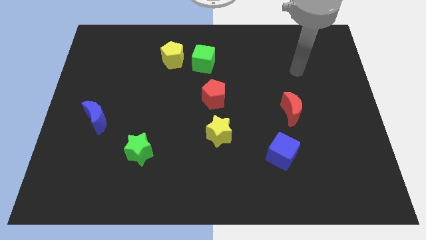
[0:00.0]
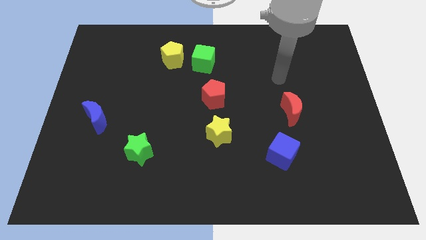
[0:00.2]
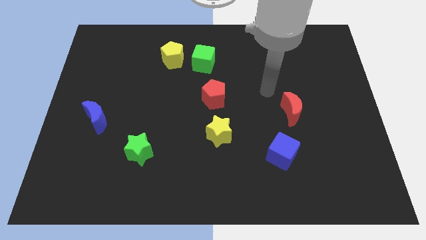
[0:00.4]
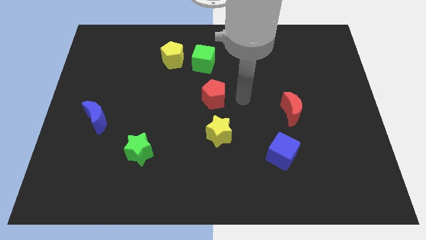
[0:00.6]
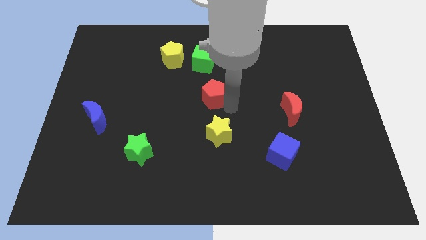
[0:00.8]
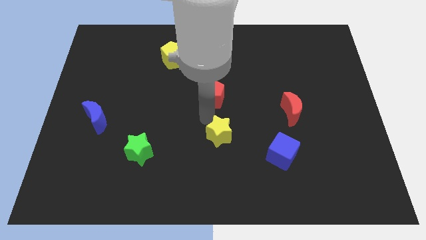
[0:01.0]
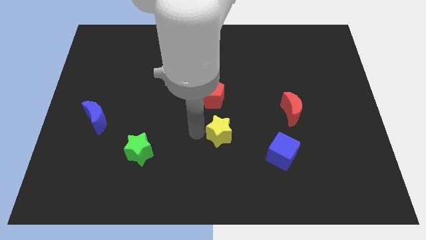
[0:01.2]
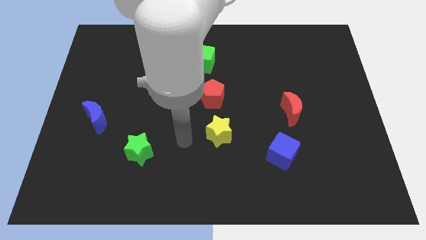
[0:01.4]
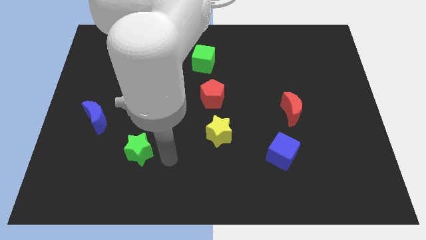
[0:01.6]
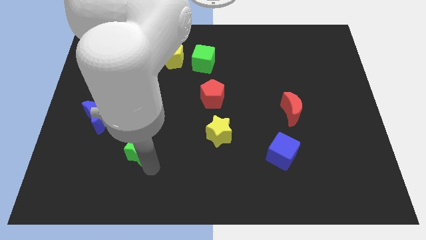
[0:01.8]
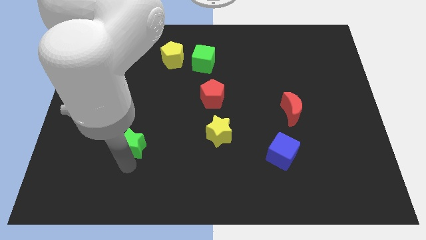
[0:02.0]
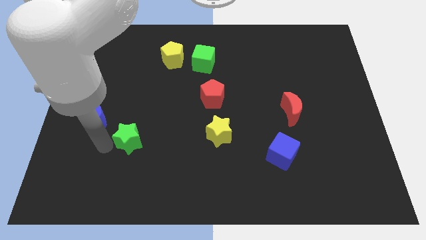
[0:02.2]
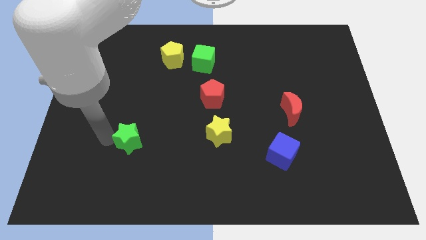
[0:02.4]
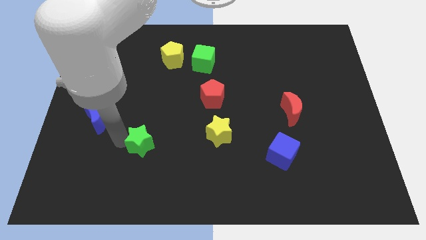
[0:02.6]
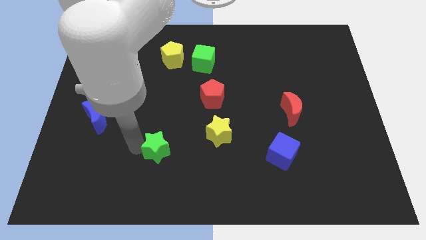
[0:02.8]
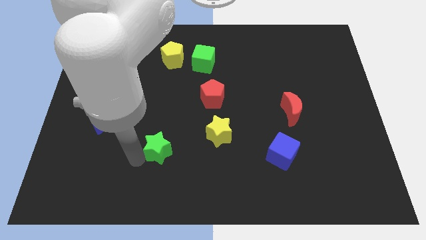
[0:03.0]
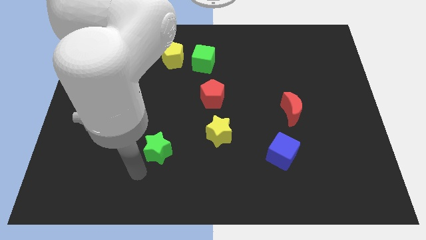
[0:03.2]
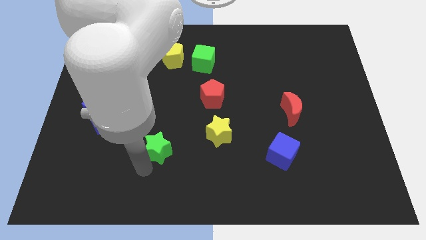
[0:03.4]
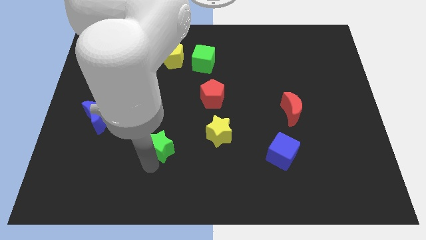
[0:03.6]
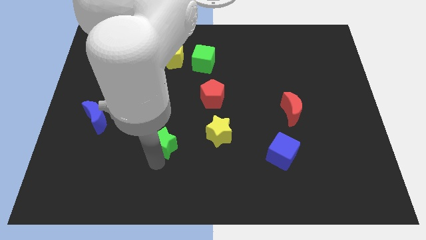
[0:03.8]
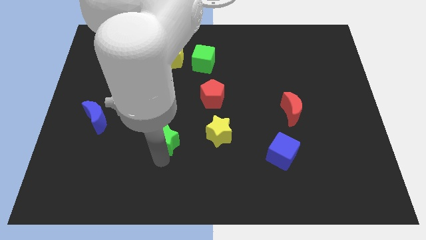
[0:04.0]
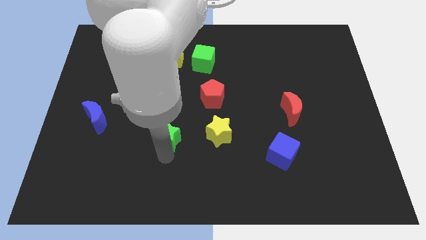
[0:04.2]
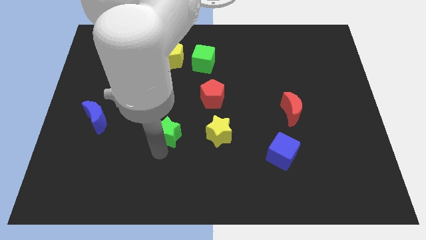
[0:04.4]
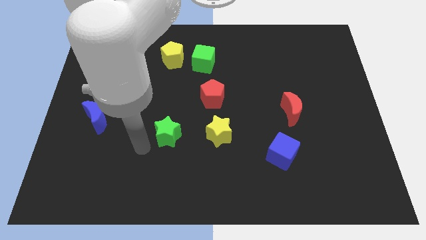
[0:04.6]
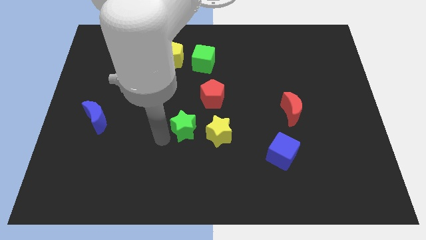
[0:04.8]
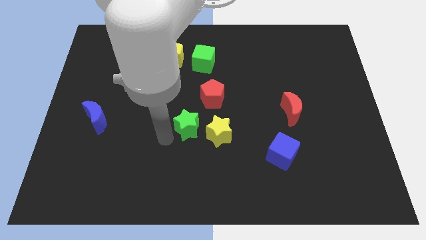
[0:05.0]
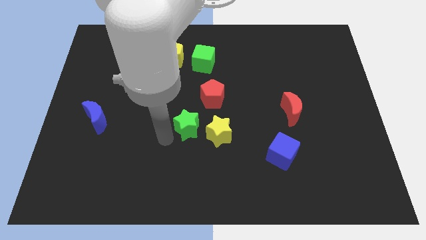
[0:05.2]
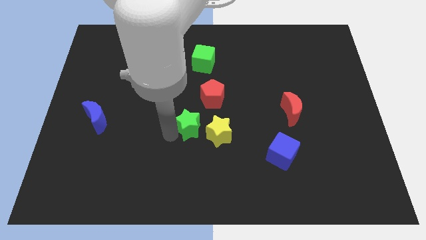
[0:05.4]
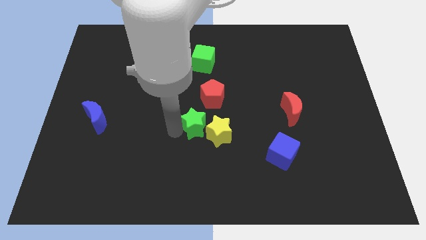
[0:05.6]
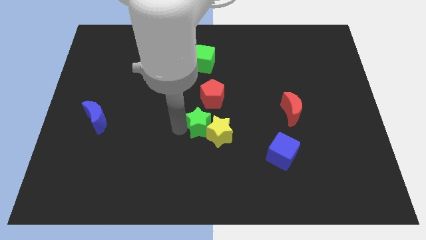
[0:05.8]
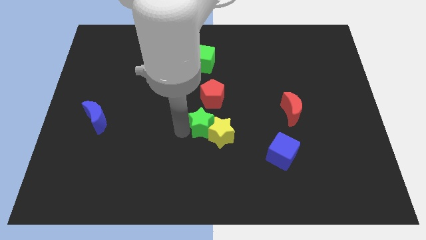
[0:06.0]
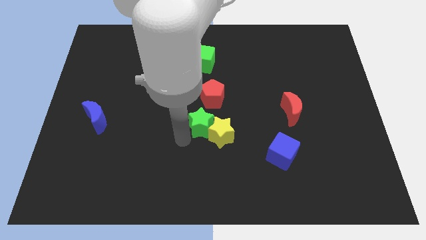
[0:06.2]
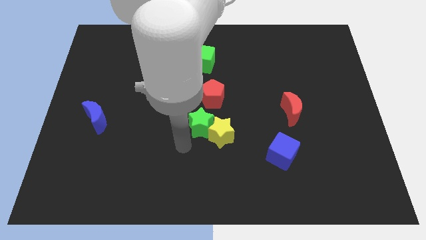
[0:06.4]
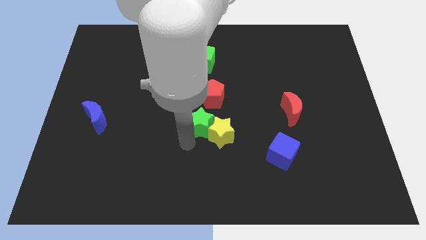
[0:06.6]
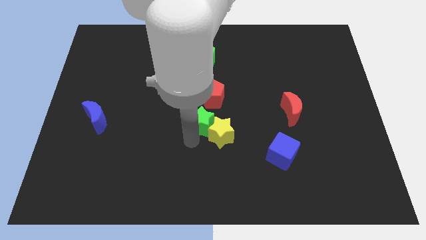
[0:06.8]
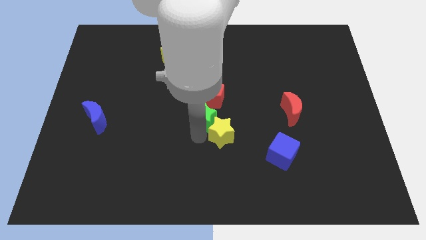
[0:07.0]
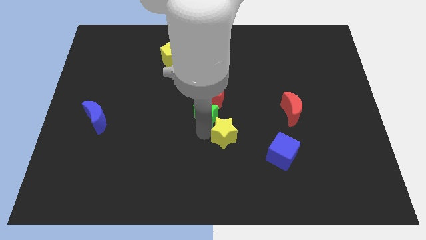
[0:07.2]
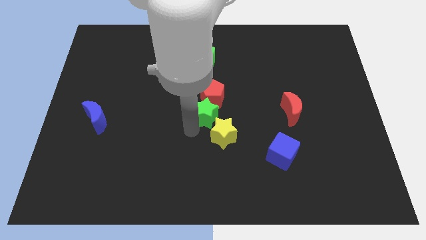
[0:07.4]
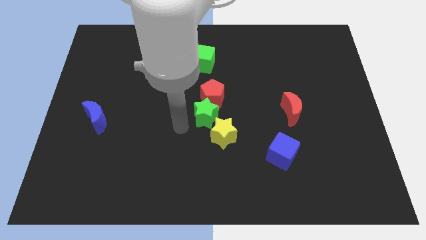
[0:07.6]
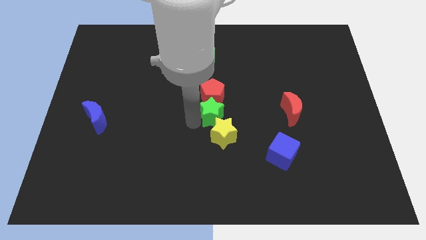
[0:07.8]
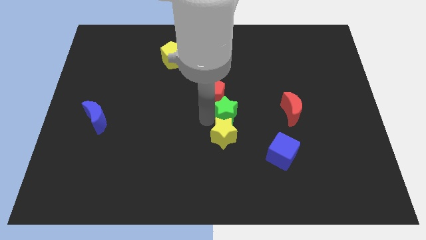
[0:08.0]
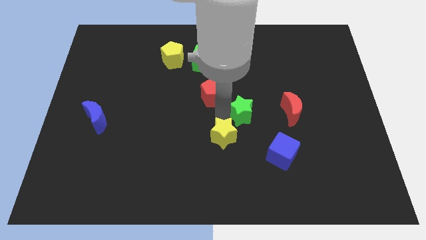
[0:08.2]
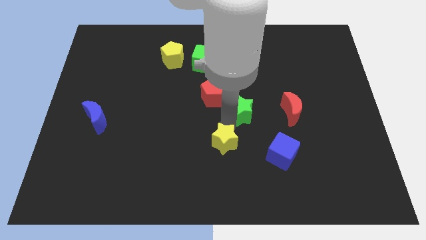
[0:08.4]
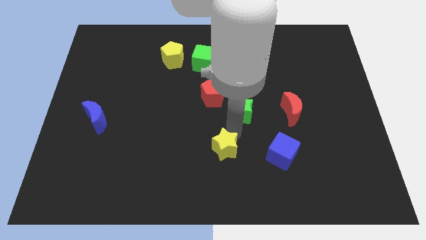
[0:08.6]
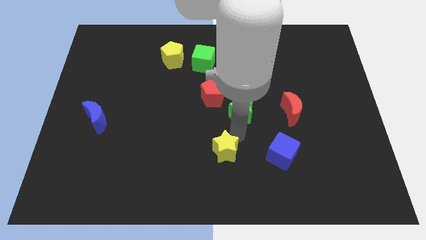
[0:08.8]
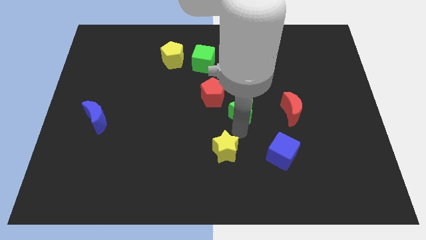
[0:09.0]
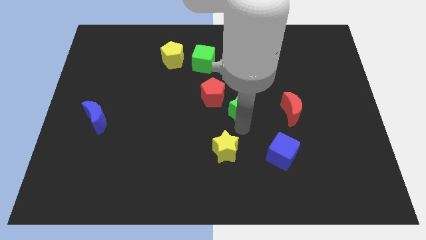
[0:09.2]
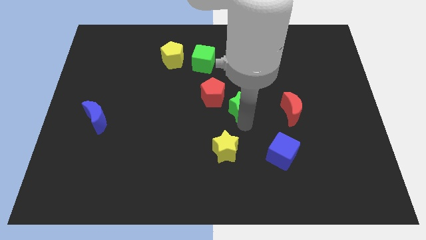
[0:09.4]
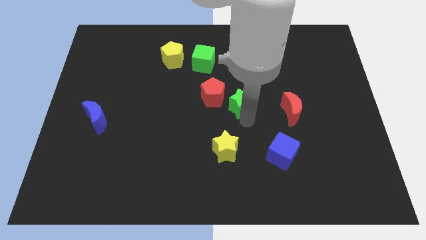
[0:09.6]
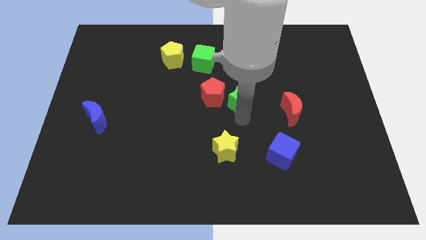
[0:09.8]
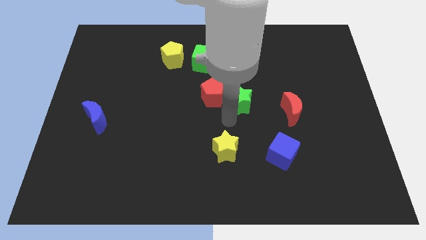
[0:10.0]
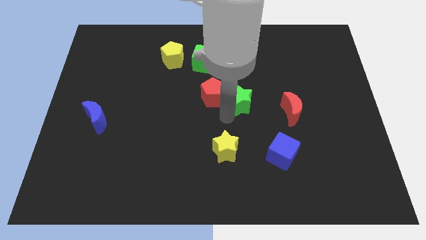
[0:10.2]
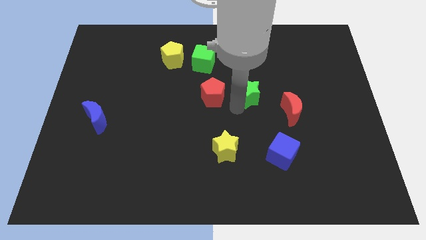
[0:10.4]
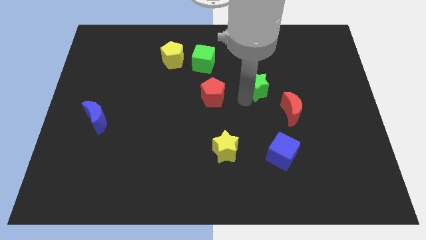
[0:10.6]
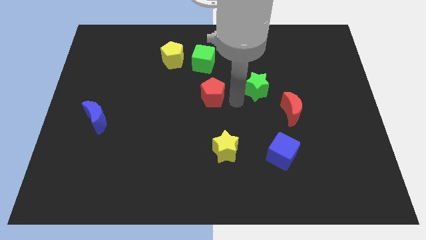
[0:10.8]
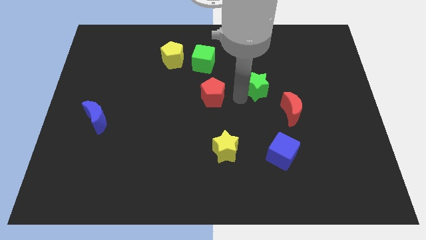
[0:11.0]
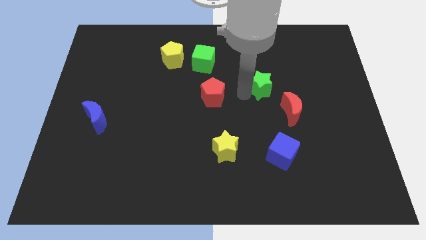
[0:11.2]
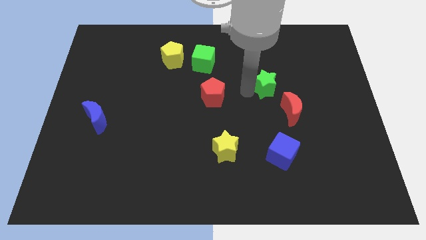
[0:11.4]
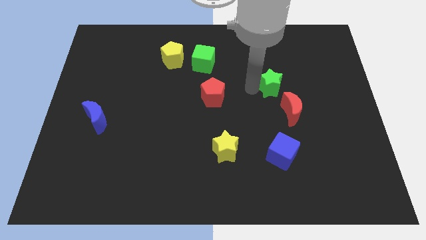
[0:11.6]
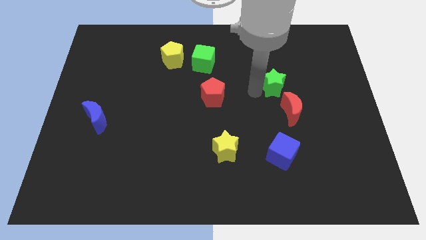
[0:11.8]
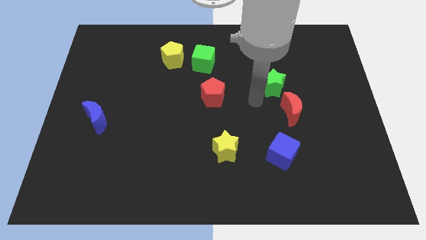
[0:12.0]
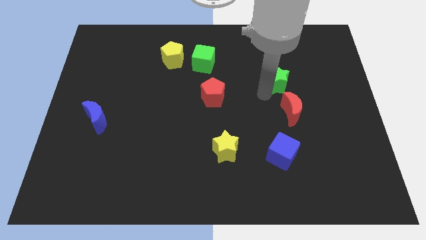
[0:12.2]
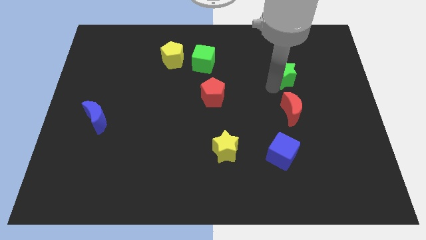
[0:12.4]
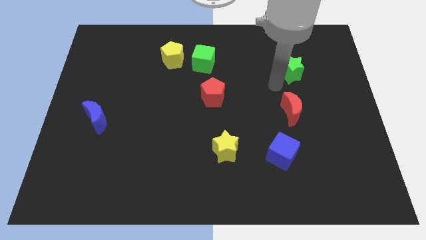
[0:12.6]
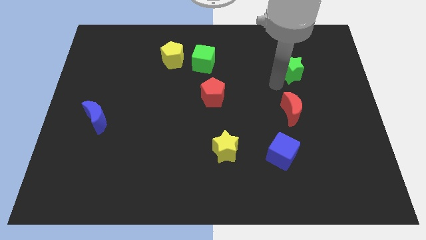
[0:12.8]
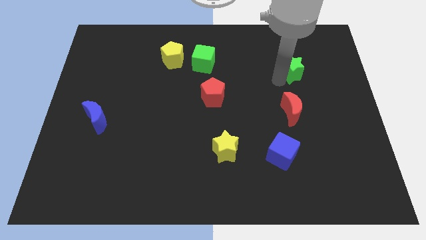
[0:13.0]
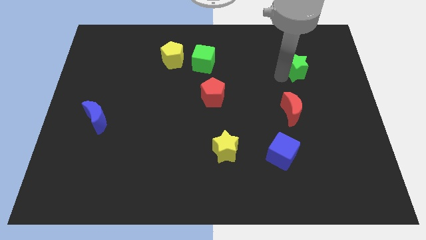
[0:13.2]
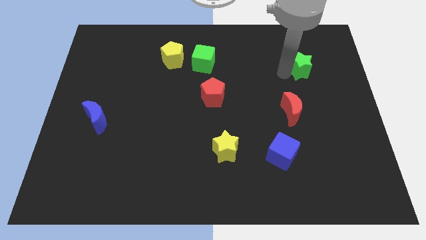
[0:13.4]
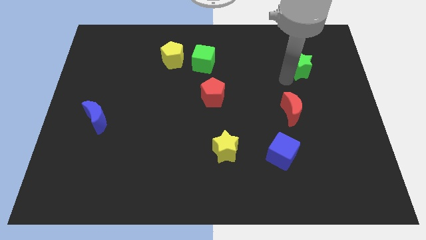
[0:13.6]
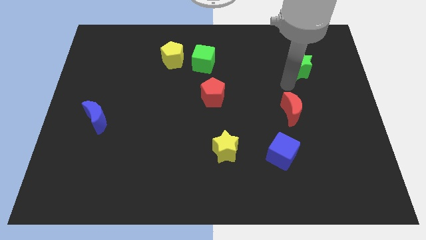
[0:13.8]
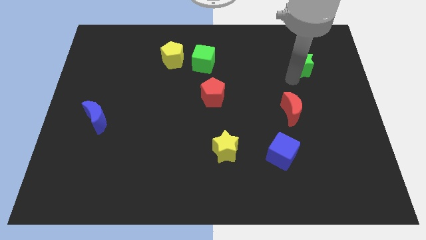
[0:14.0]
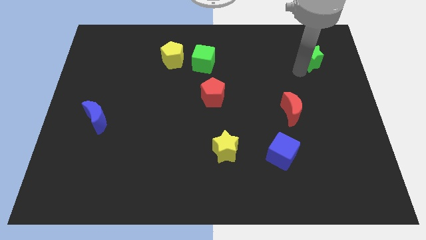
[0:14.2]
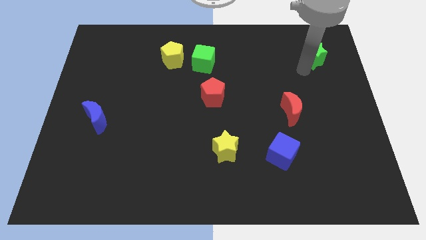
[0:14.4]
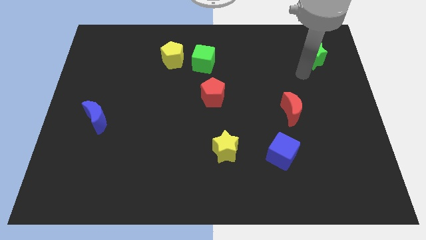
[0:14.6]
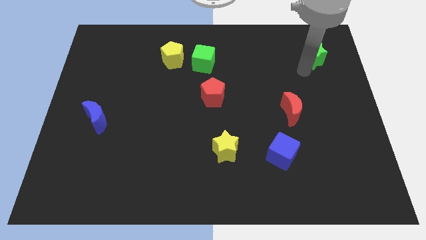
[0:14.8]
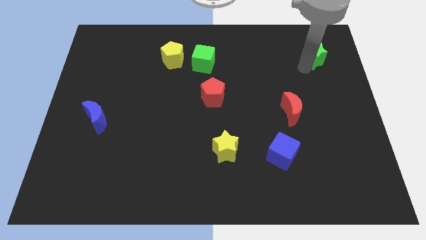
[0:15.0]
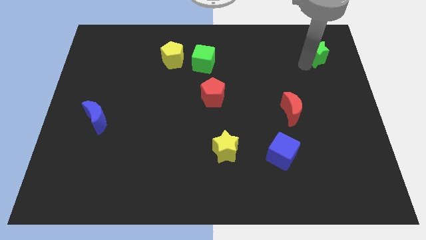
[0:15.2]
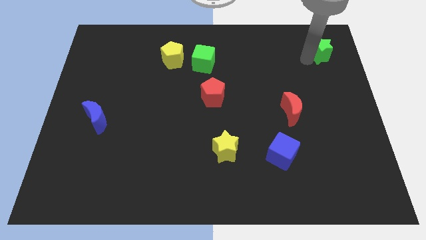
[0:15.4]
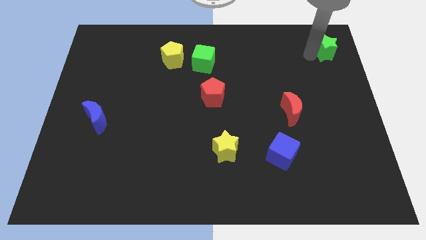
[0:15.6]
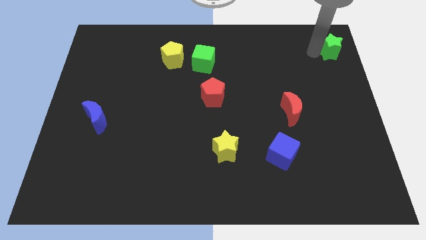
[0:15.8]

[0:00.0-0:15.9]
slide the green star to the top right of the board
